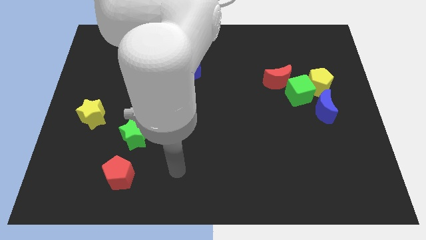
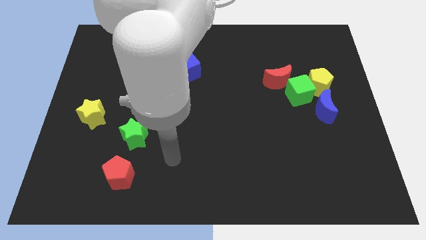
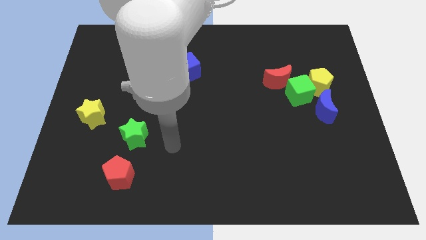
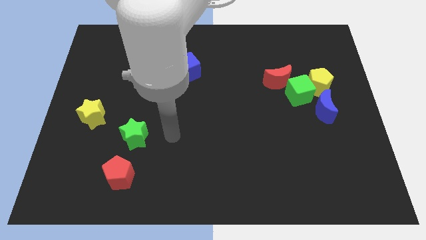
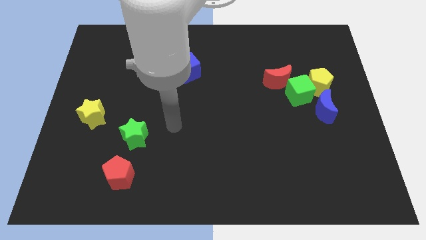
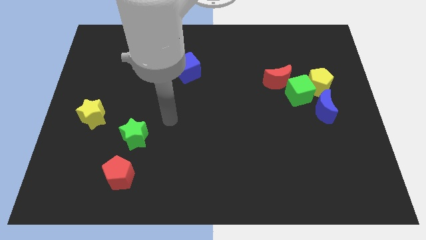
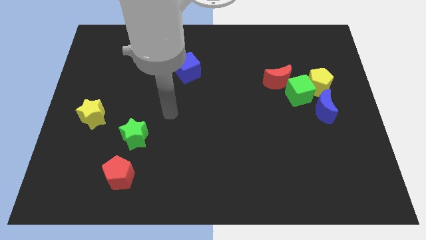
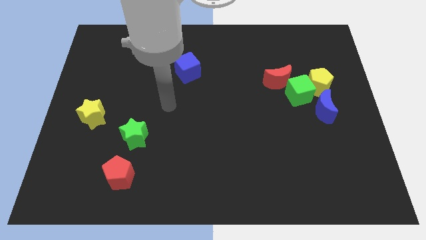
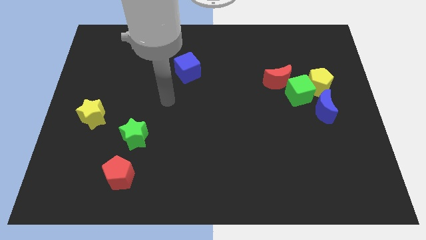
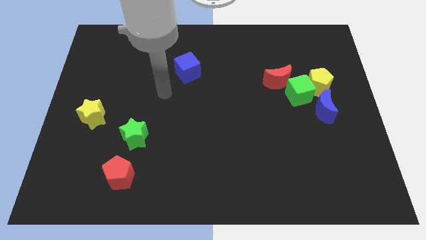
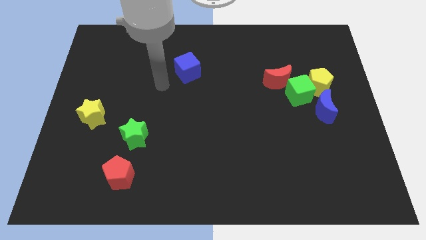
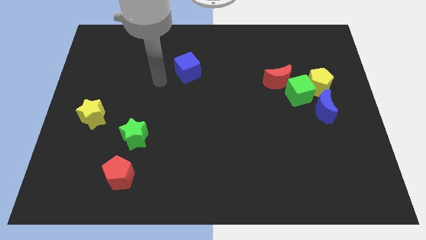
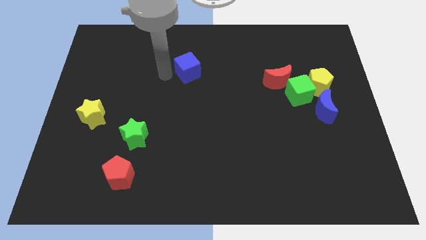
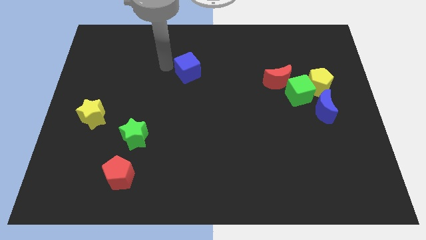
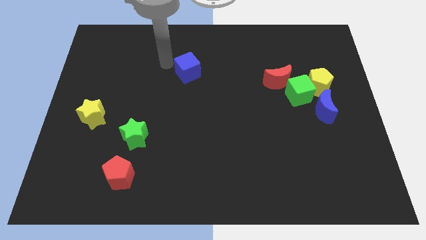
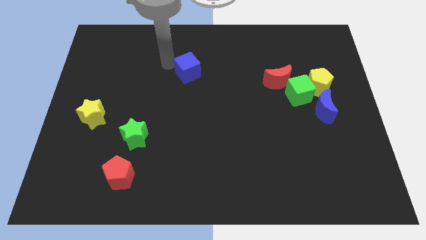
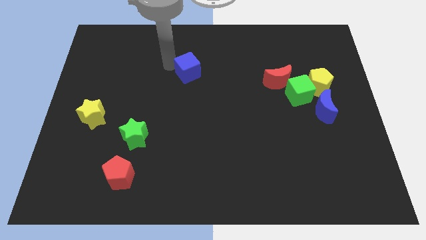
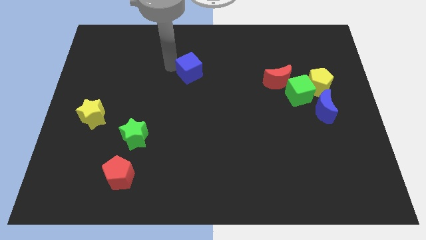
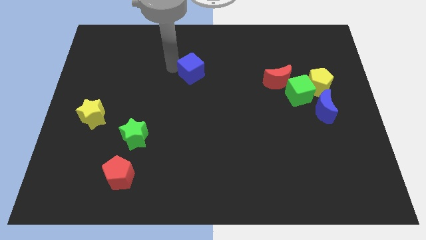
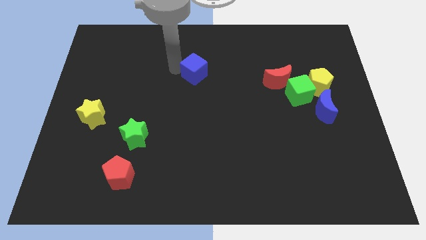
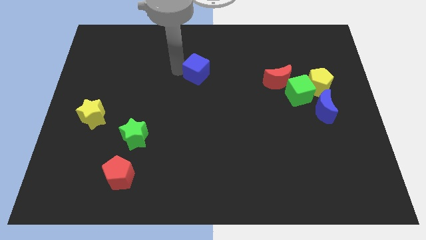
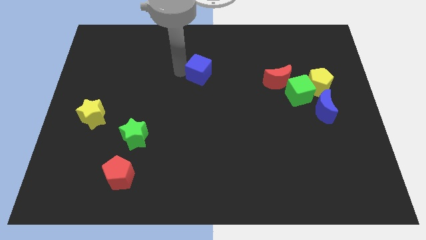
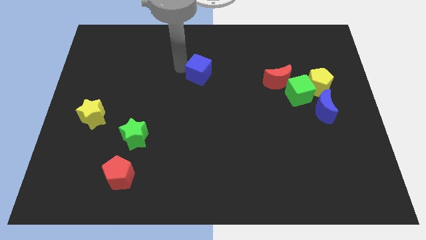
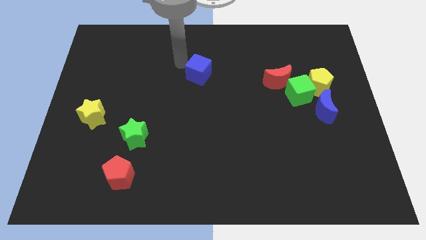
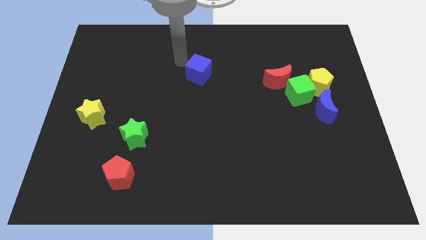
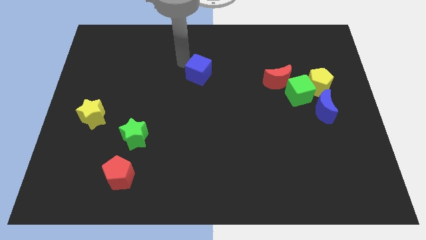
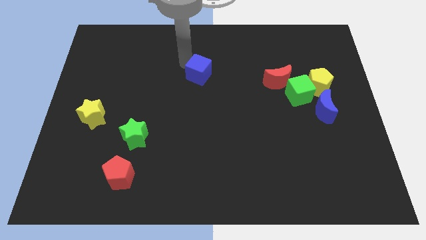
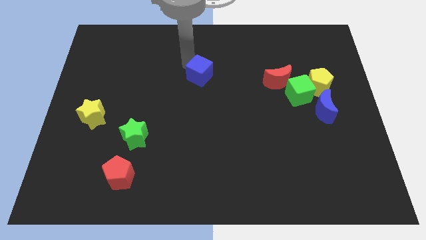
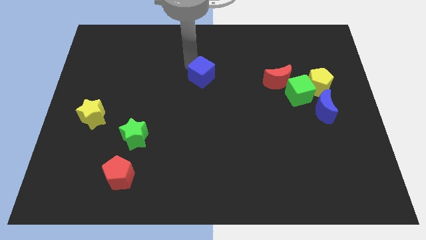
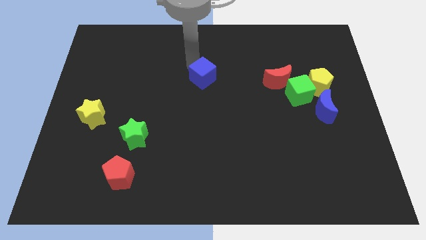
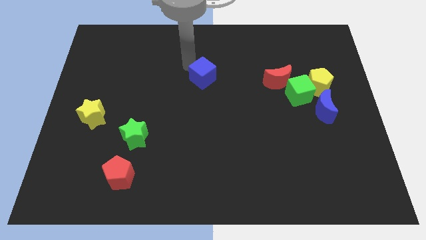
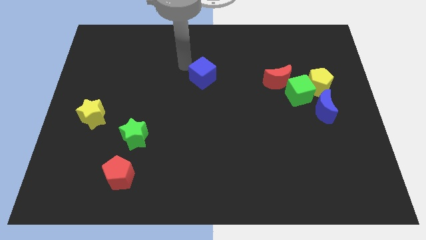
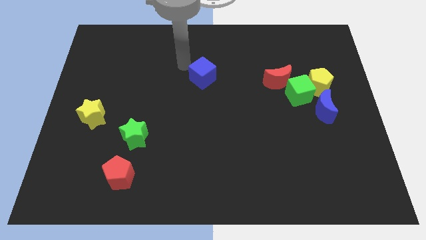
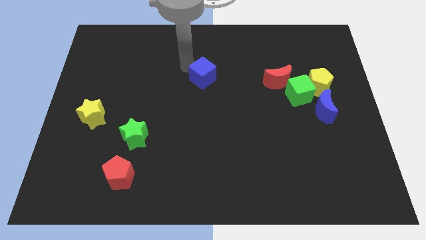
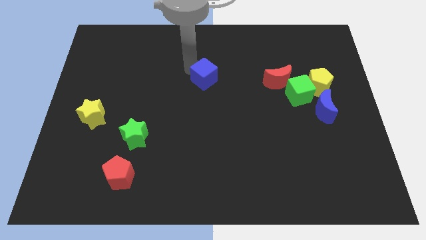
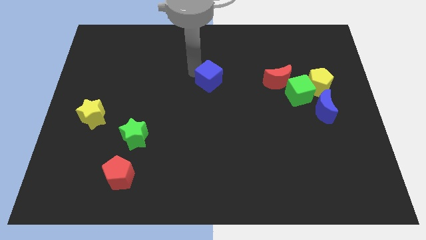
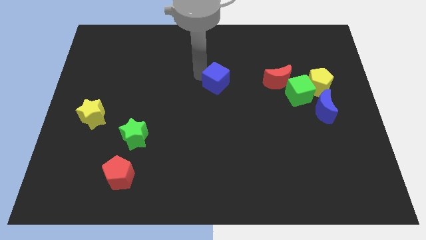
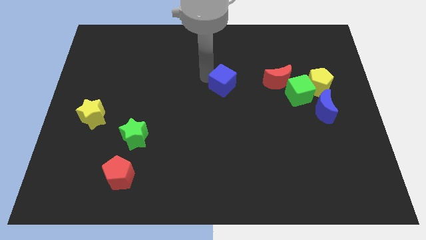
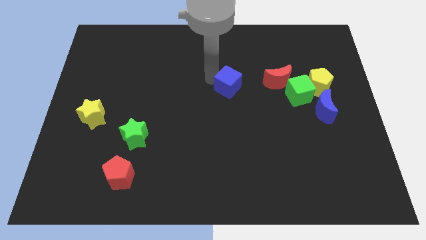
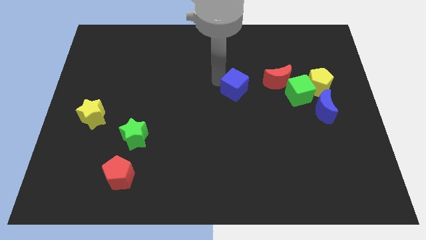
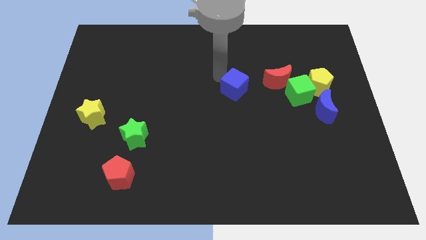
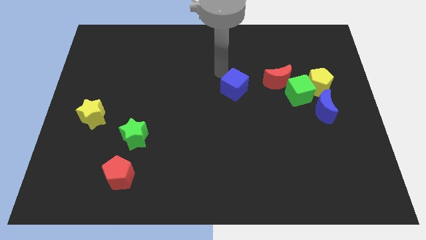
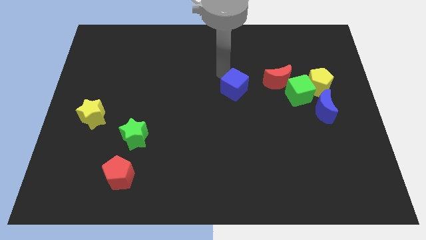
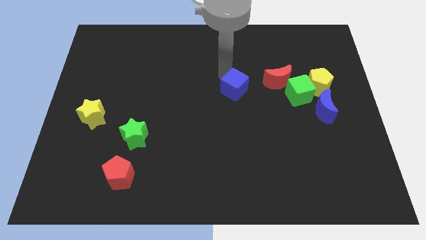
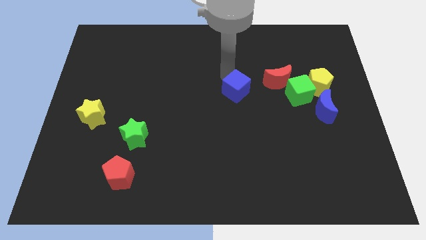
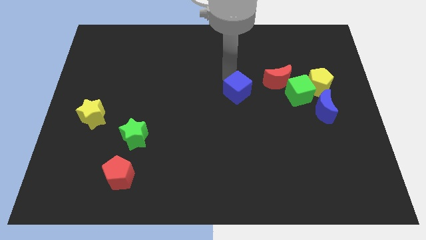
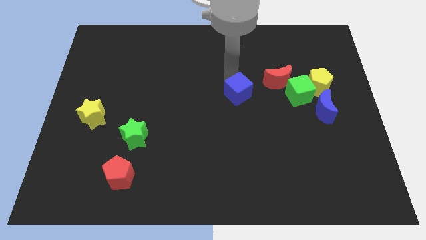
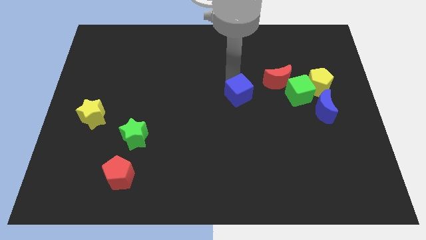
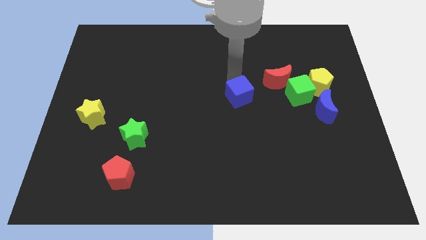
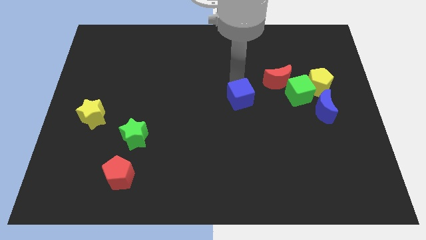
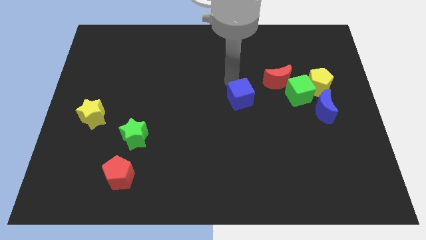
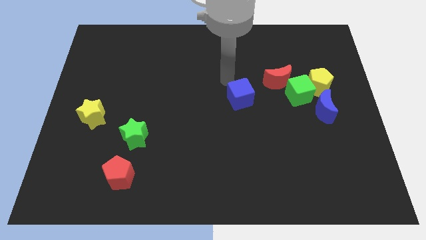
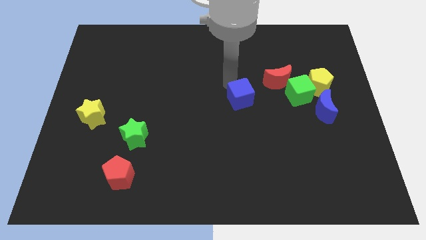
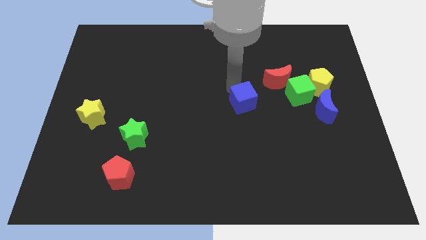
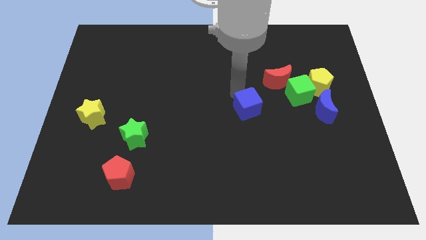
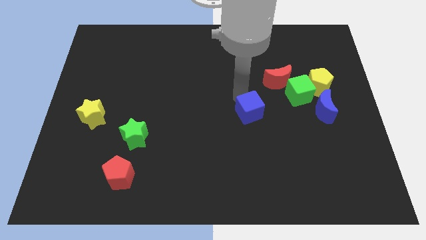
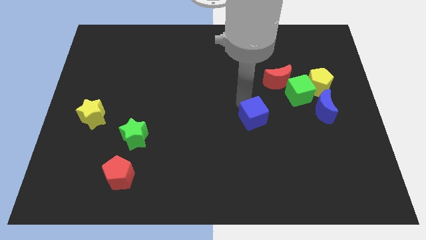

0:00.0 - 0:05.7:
slide the blue cube downwards and right

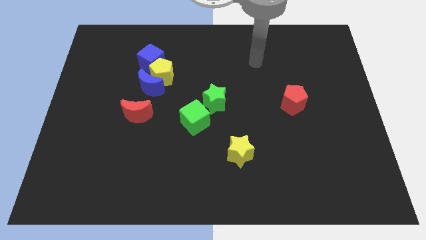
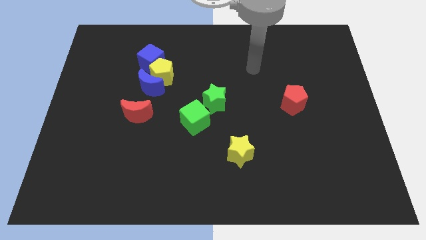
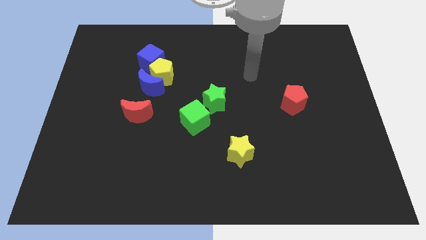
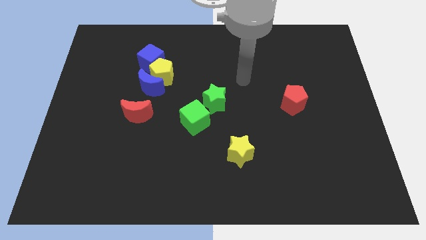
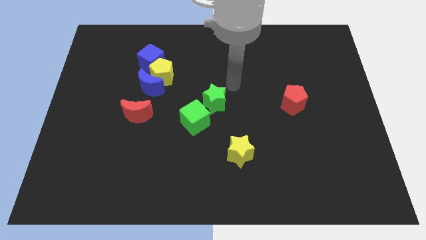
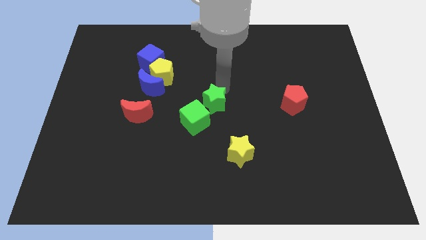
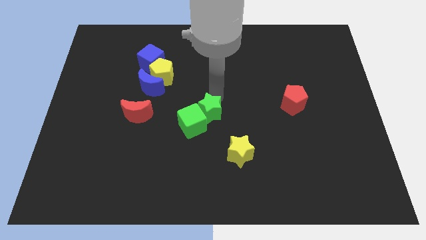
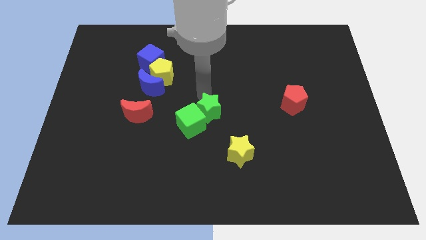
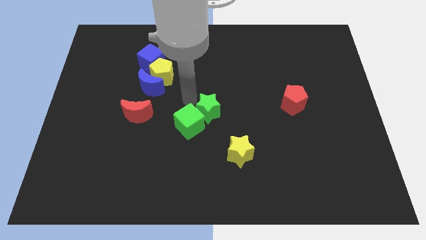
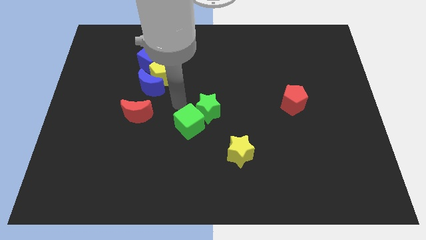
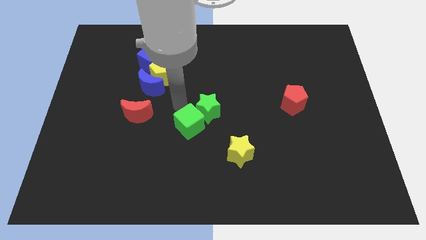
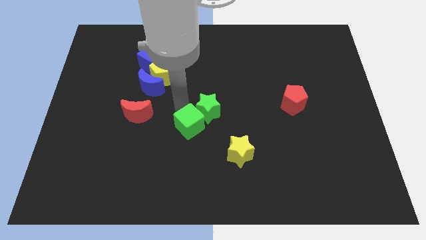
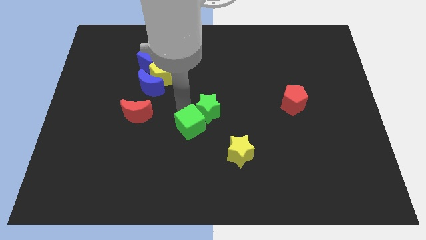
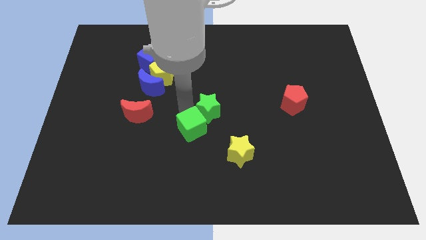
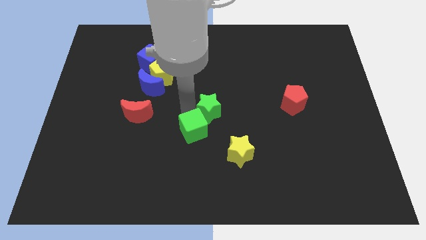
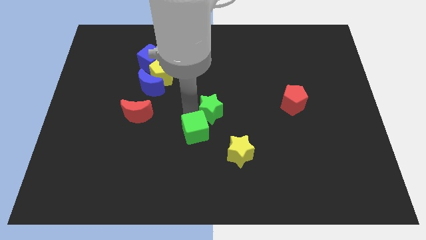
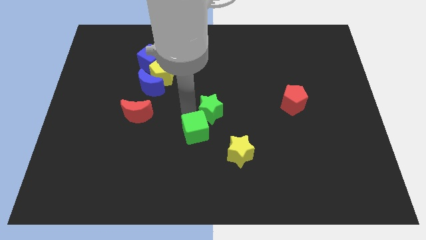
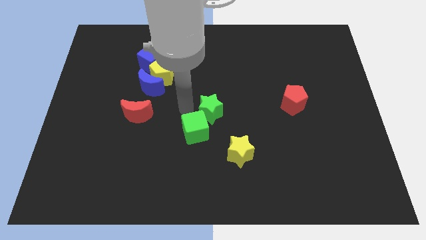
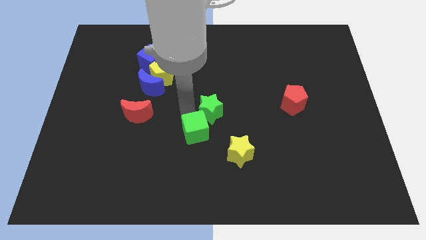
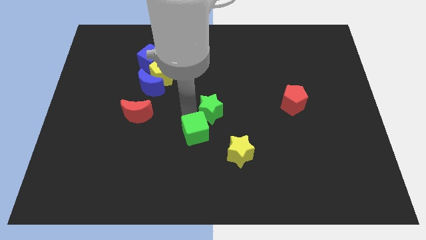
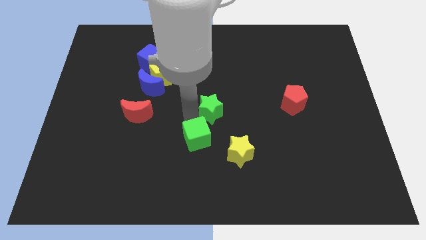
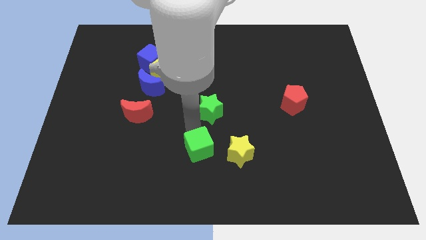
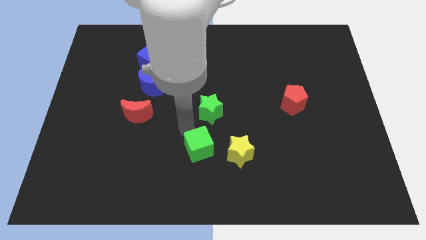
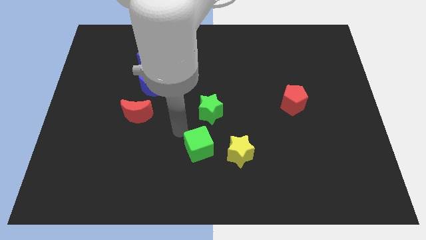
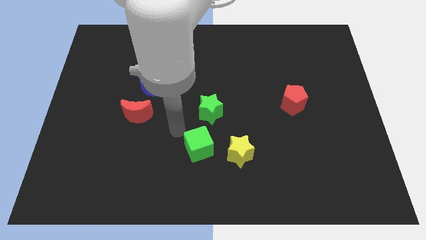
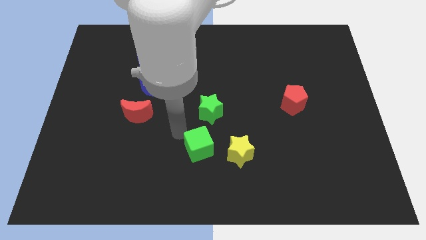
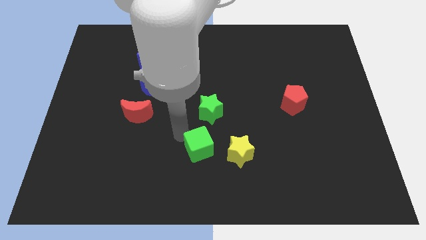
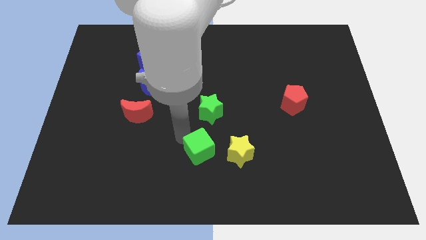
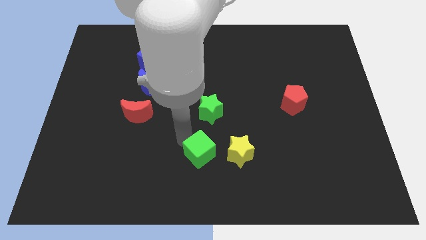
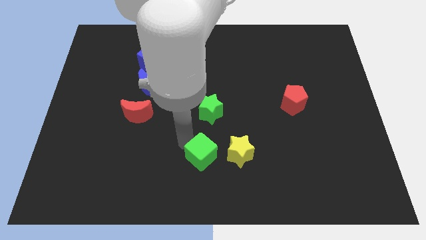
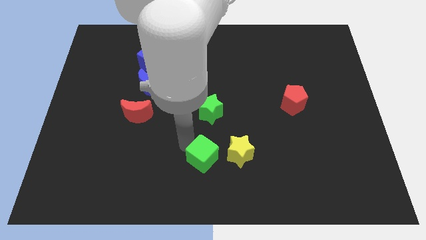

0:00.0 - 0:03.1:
push the green cube a bit downwards and then to the right
